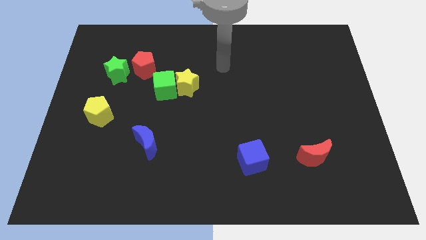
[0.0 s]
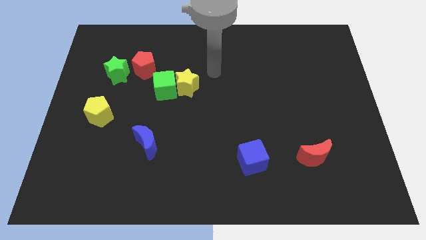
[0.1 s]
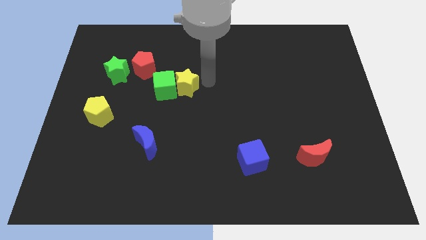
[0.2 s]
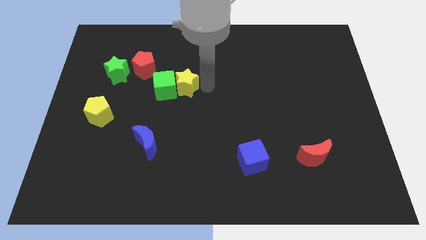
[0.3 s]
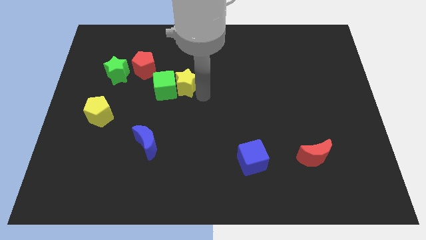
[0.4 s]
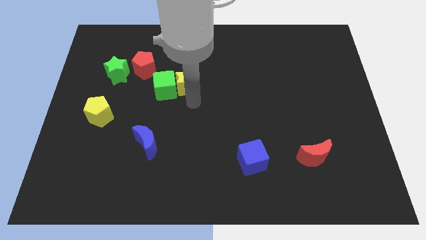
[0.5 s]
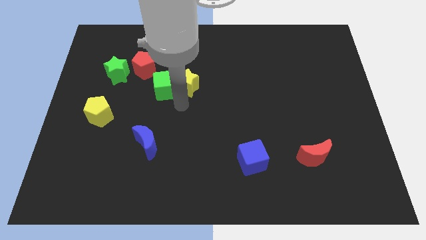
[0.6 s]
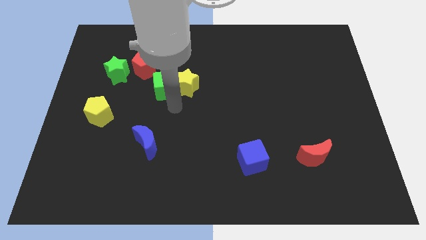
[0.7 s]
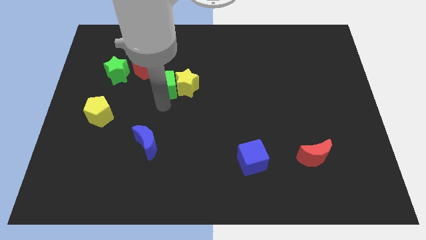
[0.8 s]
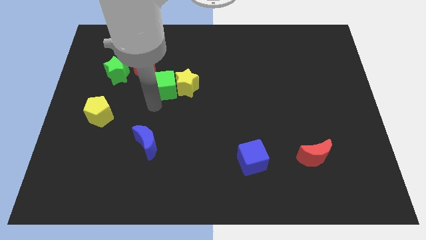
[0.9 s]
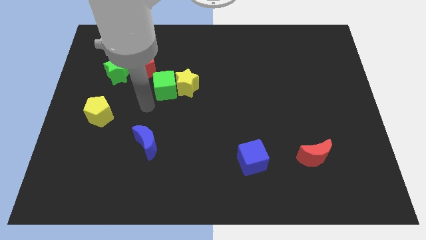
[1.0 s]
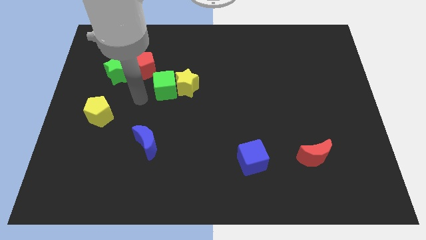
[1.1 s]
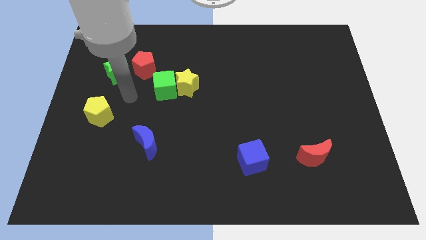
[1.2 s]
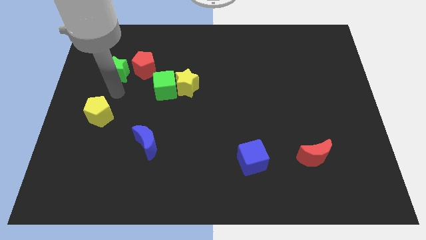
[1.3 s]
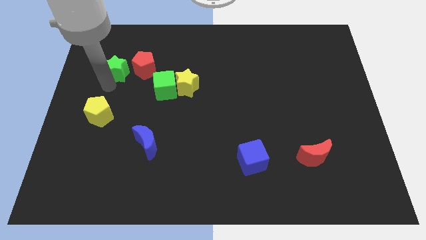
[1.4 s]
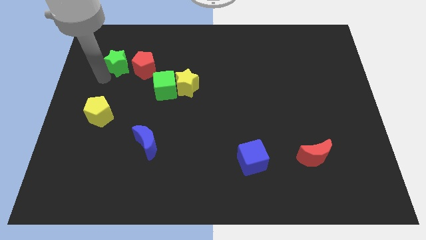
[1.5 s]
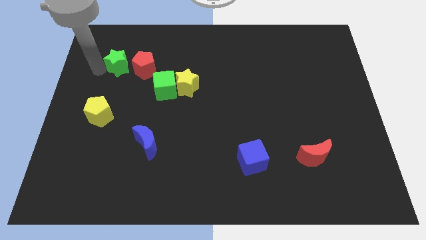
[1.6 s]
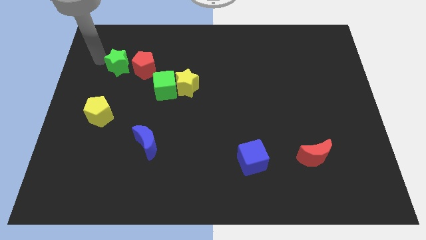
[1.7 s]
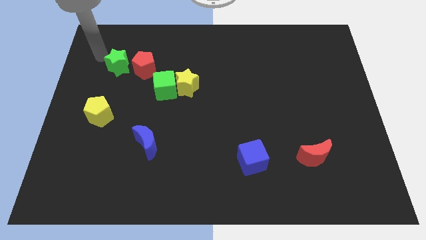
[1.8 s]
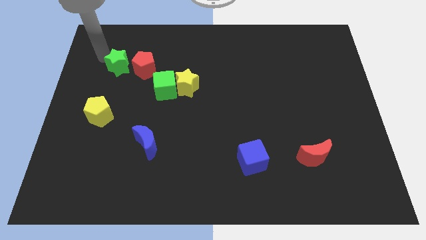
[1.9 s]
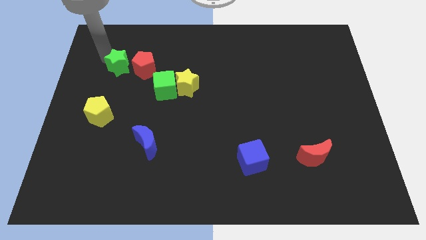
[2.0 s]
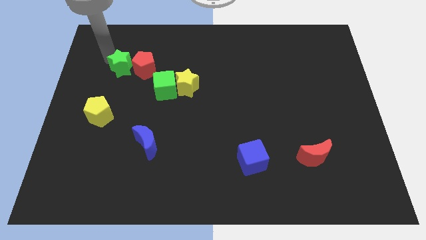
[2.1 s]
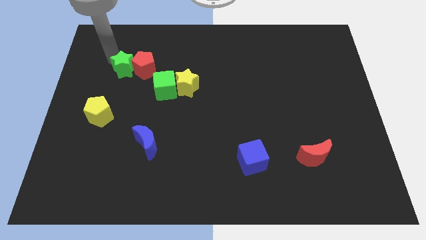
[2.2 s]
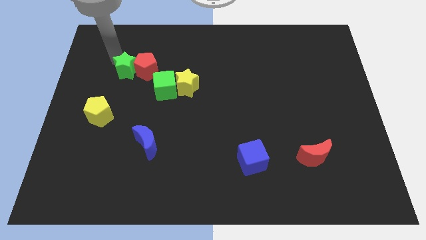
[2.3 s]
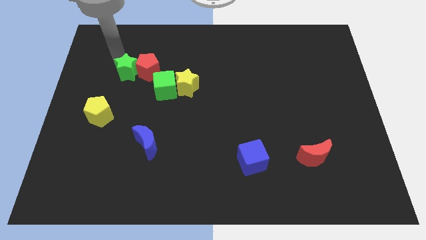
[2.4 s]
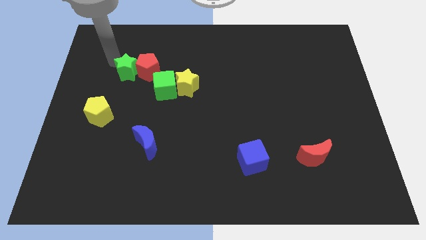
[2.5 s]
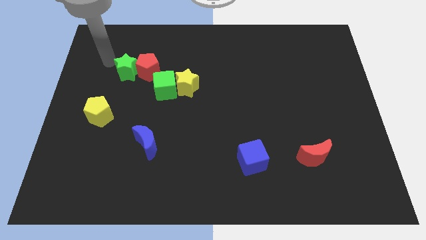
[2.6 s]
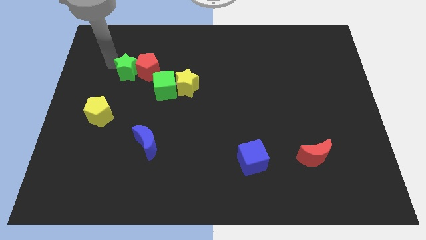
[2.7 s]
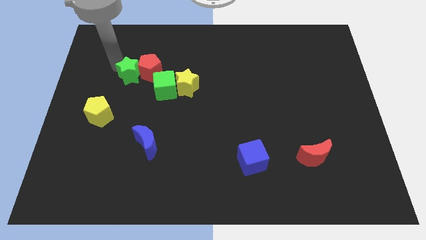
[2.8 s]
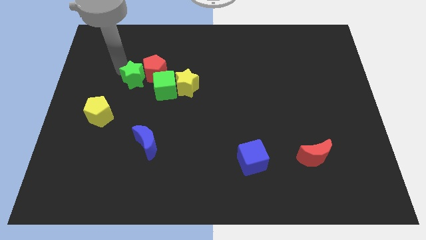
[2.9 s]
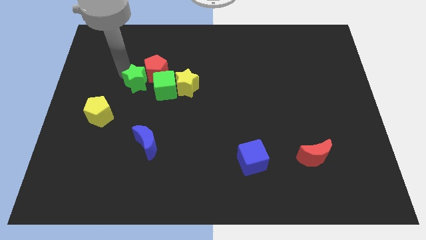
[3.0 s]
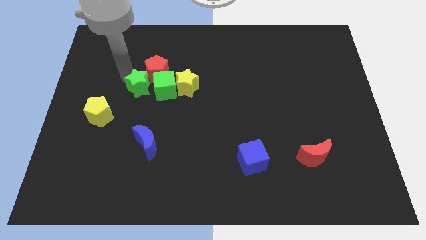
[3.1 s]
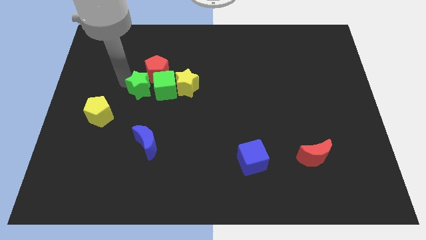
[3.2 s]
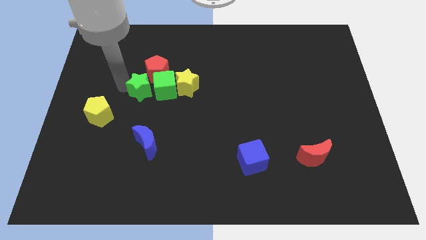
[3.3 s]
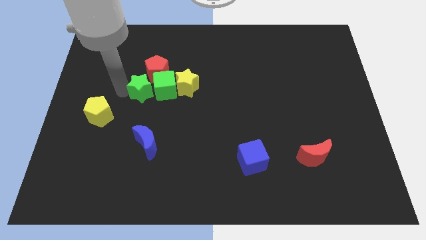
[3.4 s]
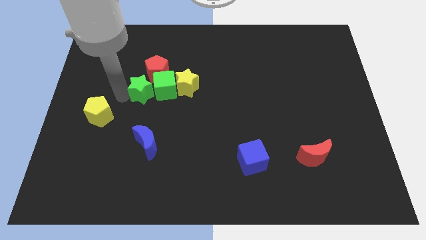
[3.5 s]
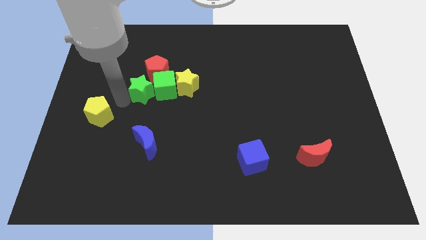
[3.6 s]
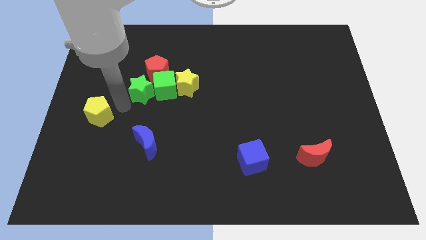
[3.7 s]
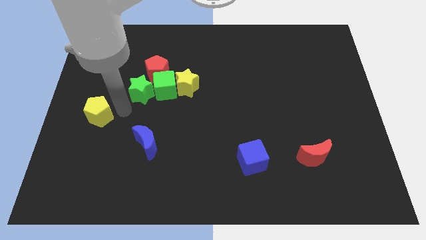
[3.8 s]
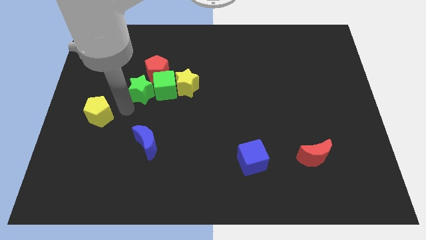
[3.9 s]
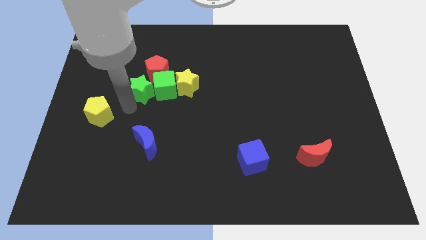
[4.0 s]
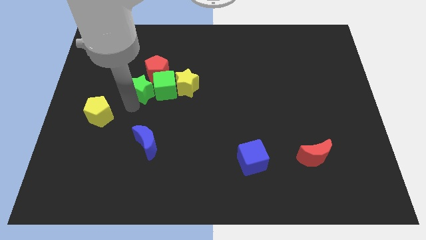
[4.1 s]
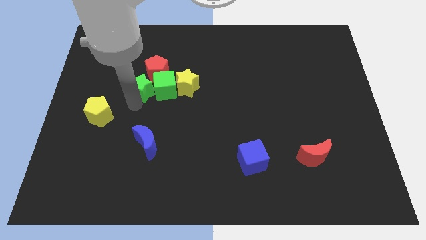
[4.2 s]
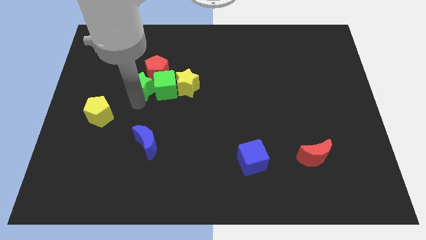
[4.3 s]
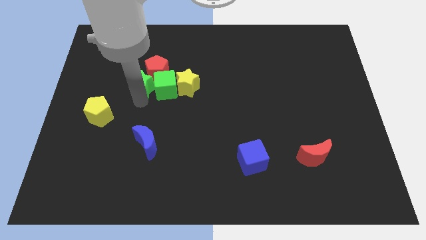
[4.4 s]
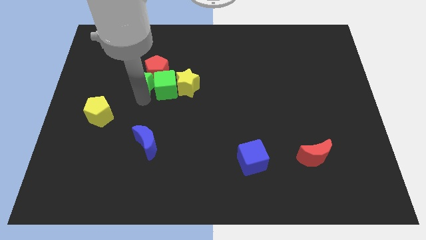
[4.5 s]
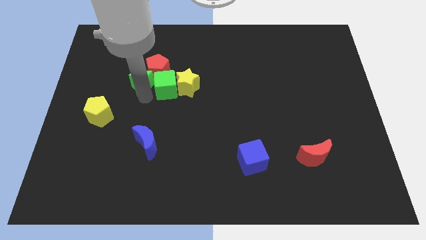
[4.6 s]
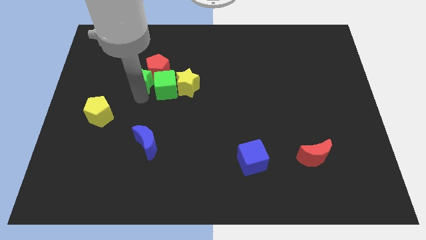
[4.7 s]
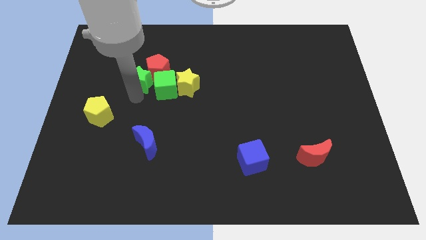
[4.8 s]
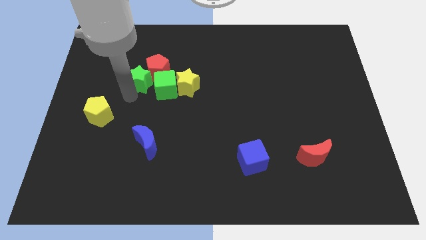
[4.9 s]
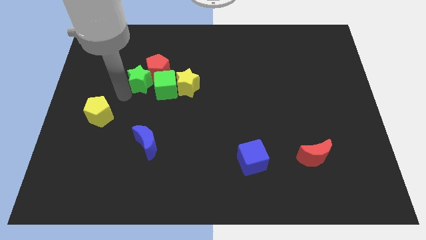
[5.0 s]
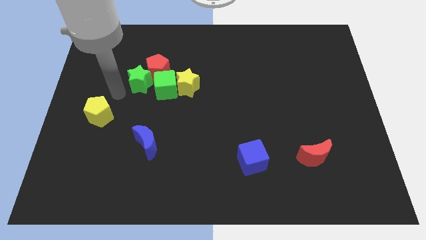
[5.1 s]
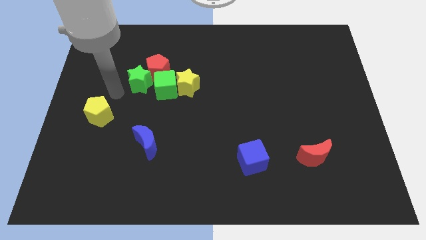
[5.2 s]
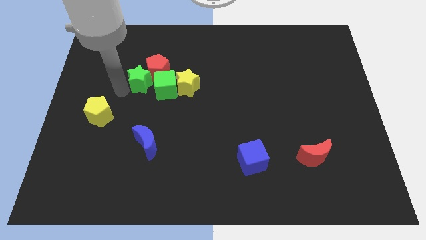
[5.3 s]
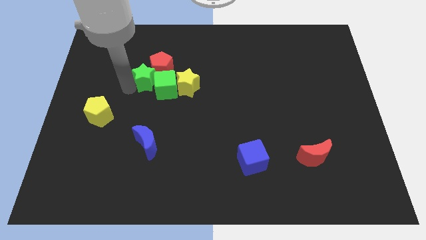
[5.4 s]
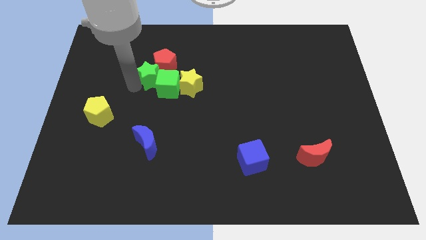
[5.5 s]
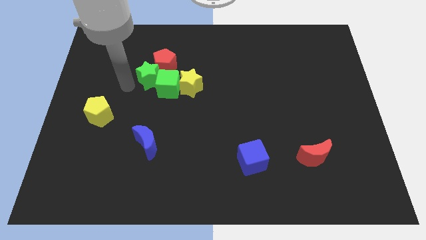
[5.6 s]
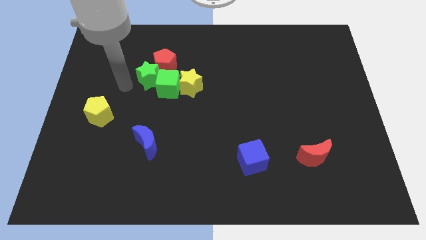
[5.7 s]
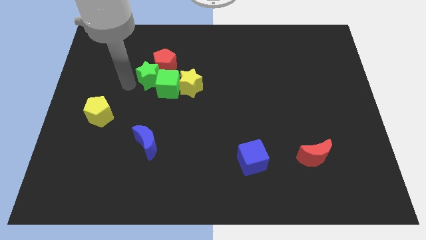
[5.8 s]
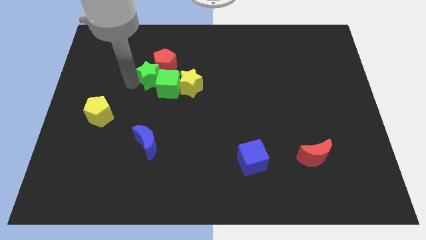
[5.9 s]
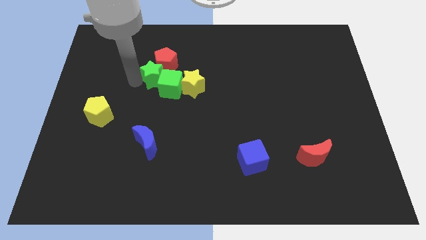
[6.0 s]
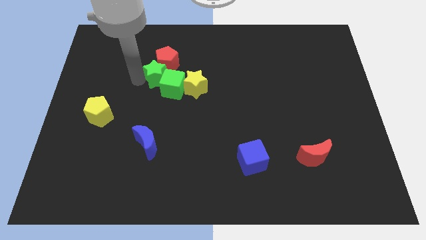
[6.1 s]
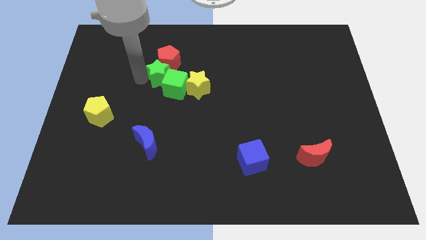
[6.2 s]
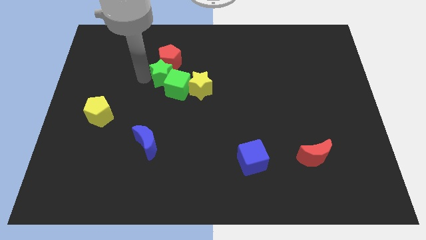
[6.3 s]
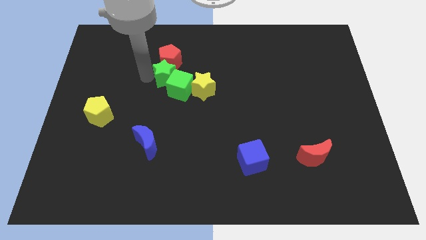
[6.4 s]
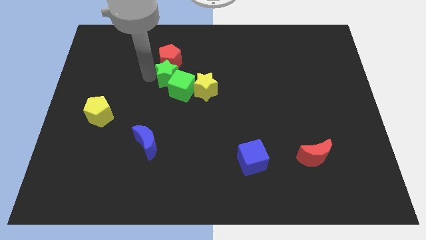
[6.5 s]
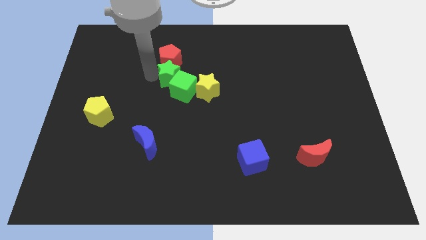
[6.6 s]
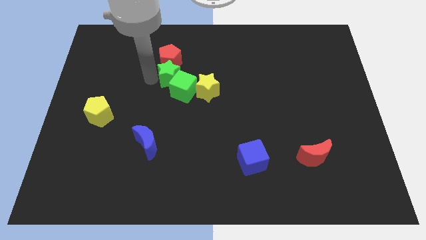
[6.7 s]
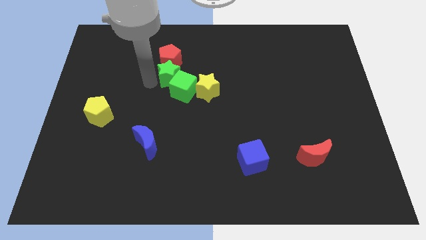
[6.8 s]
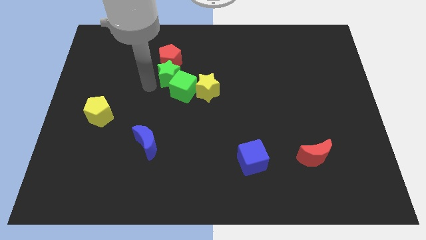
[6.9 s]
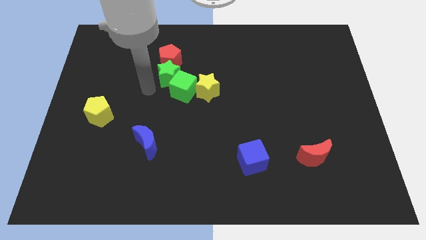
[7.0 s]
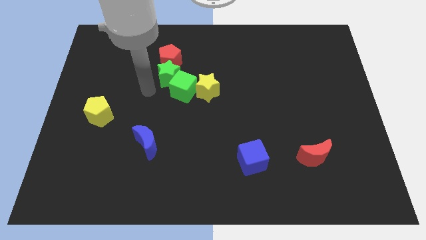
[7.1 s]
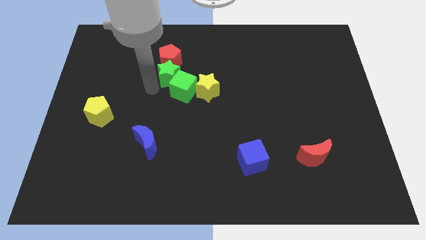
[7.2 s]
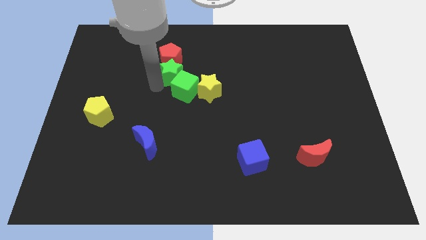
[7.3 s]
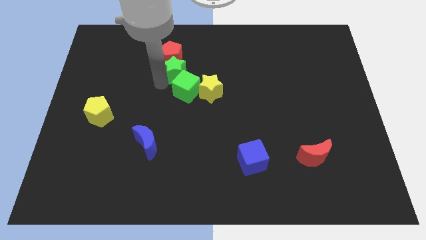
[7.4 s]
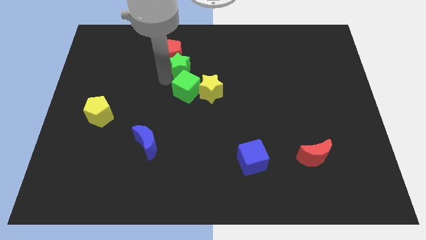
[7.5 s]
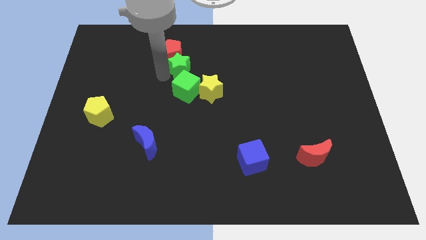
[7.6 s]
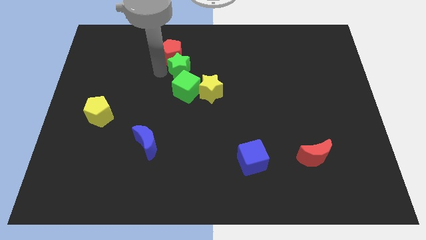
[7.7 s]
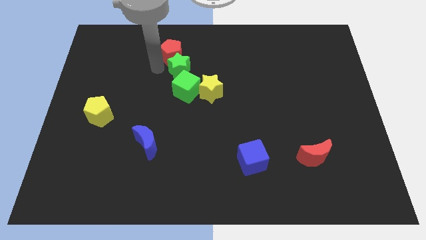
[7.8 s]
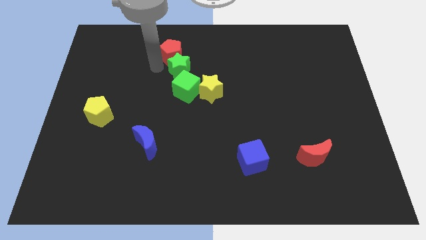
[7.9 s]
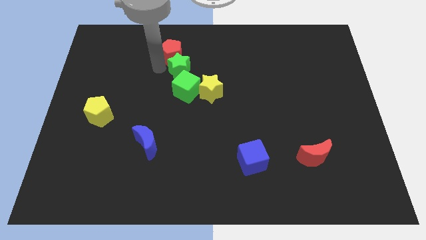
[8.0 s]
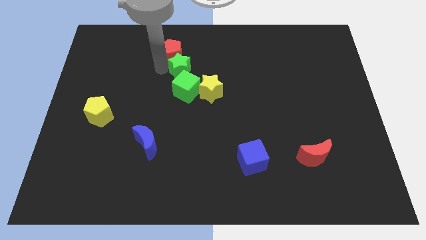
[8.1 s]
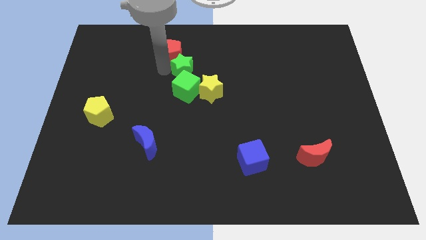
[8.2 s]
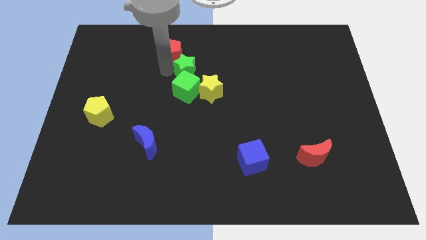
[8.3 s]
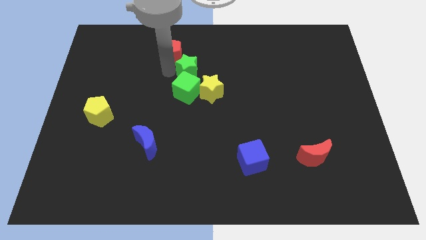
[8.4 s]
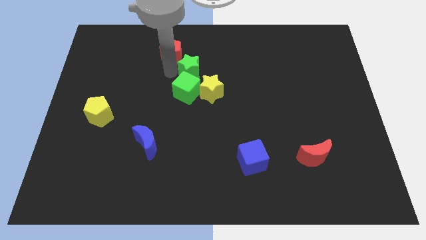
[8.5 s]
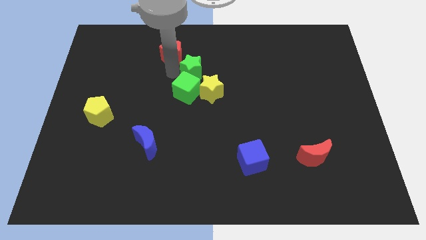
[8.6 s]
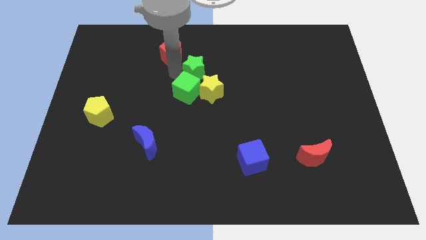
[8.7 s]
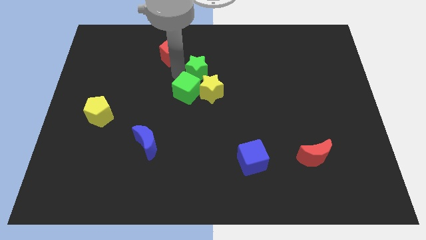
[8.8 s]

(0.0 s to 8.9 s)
slide the green star to the right
